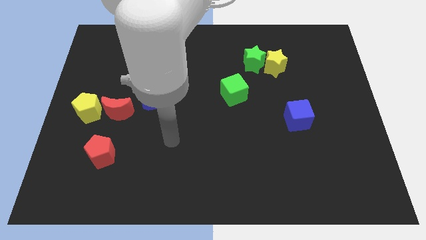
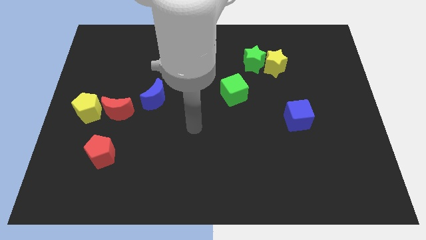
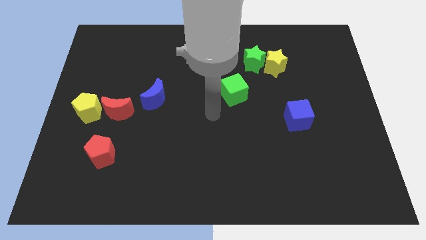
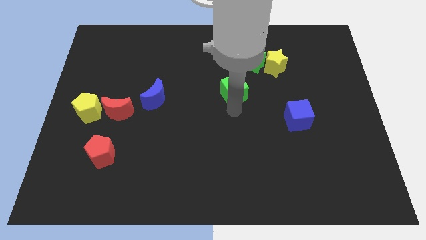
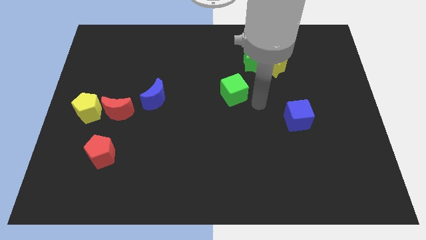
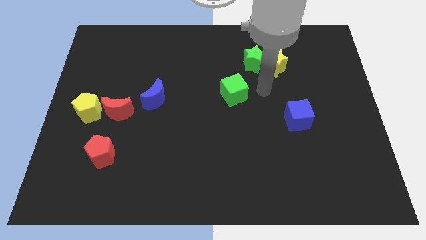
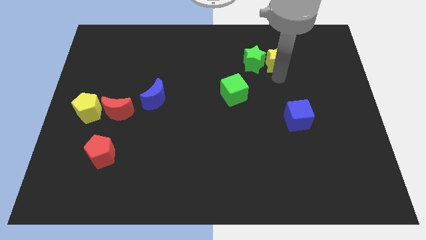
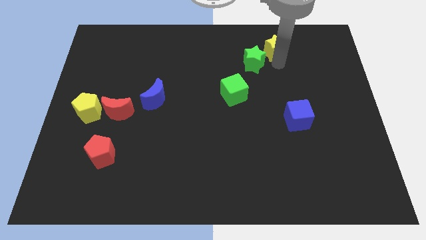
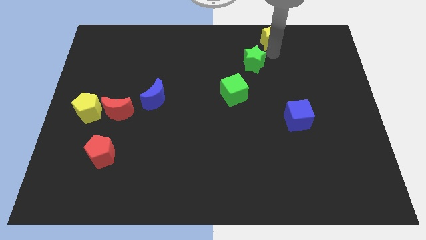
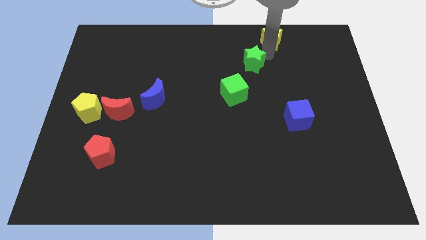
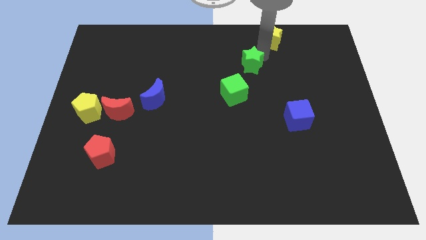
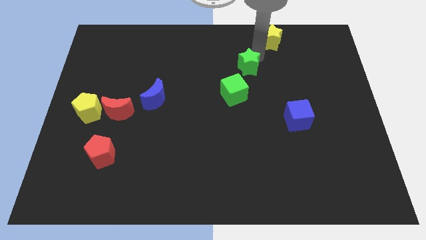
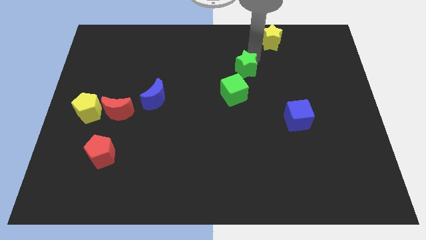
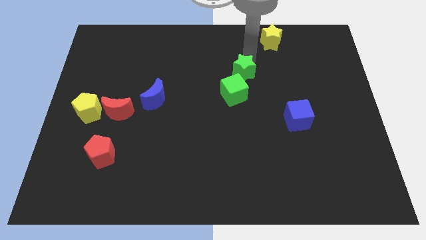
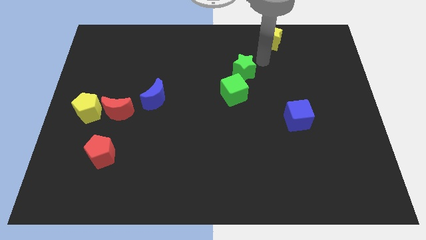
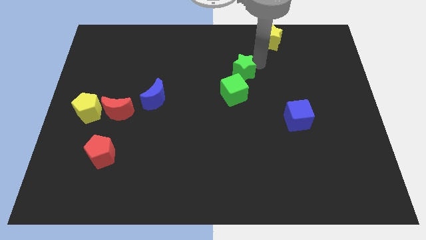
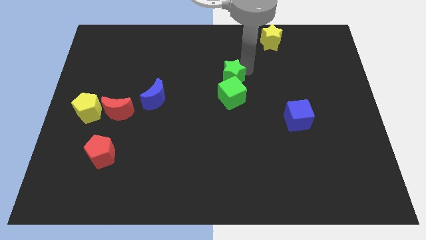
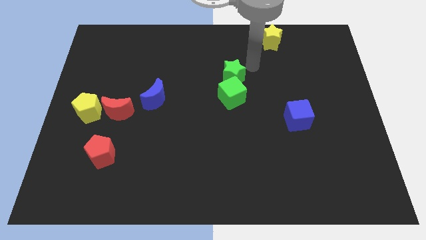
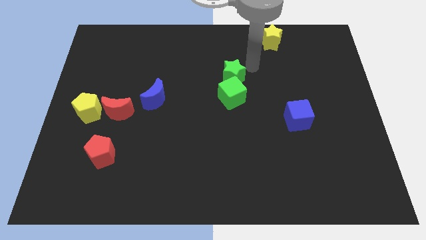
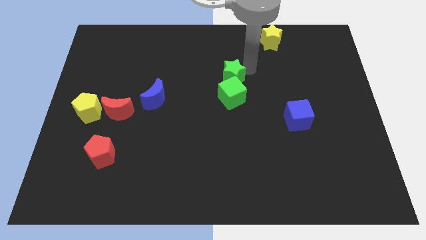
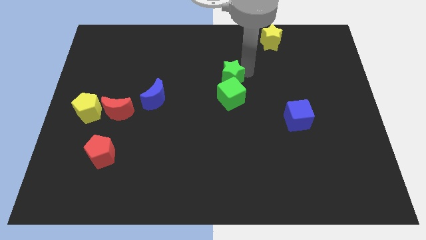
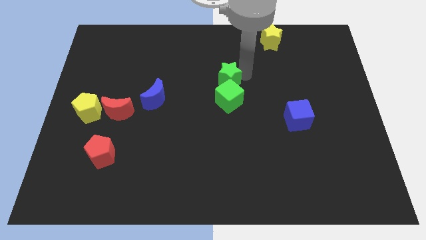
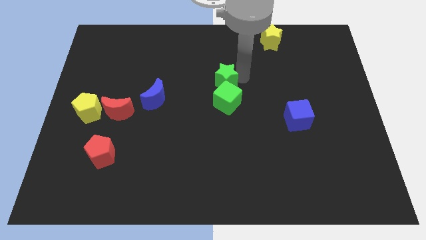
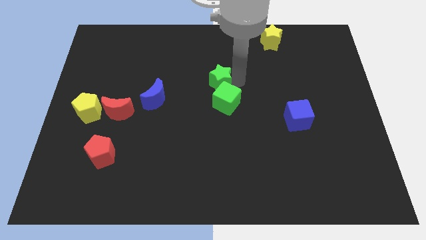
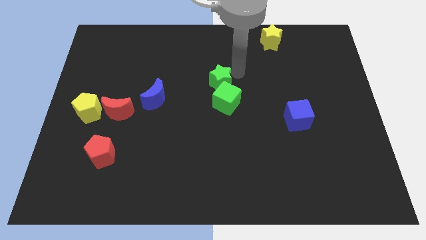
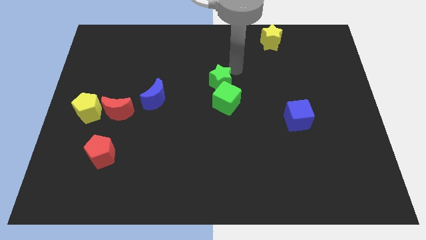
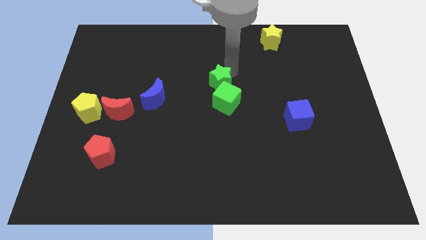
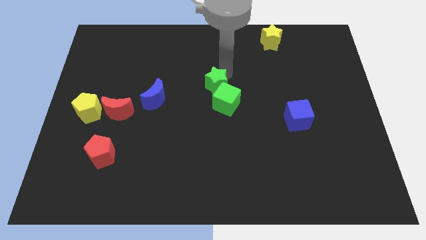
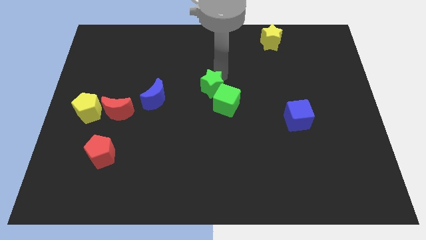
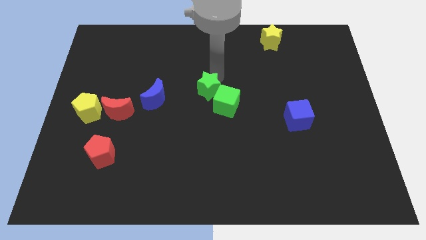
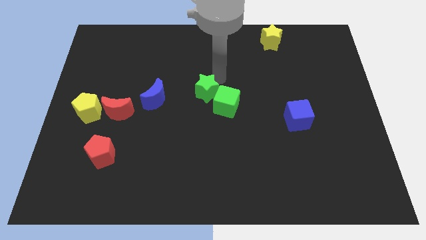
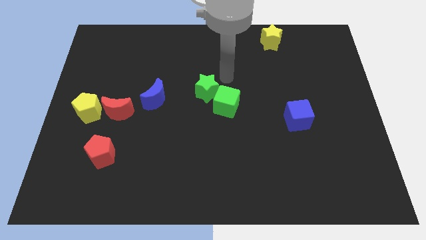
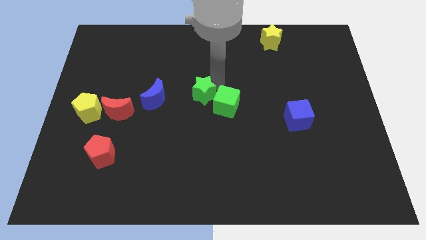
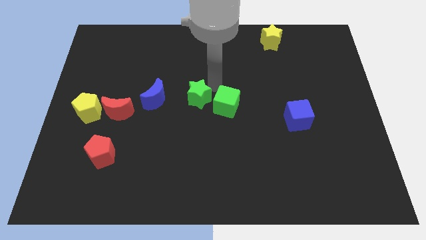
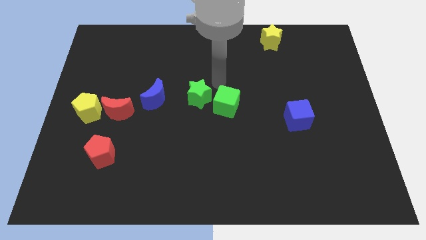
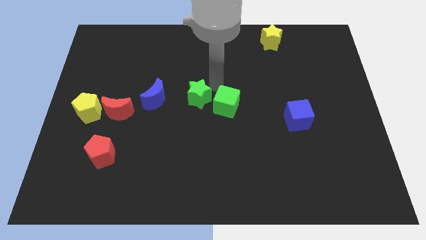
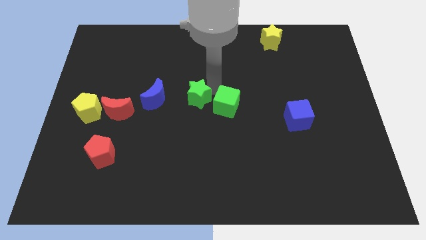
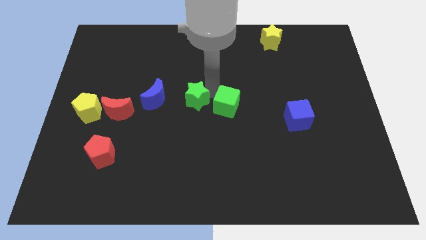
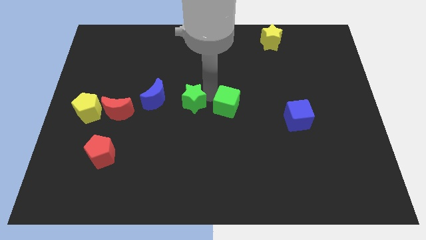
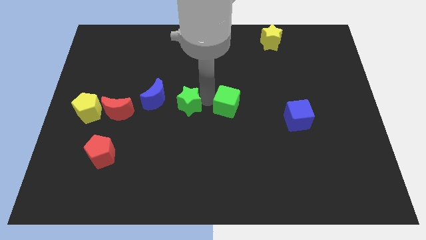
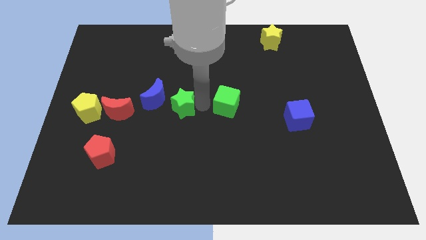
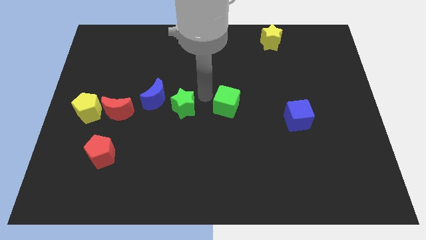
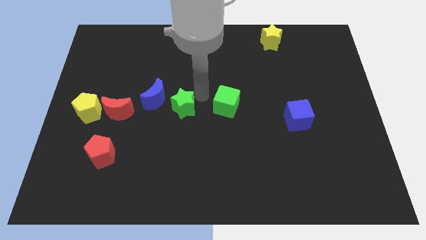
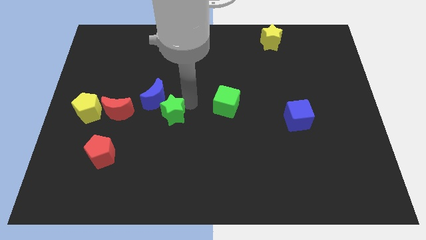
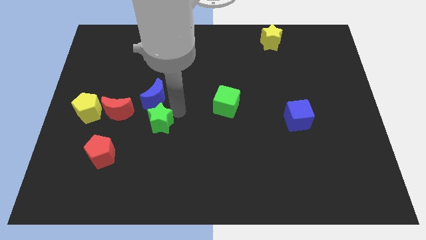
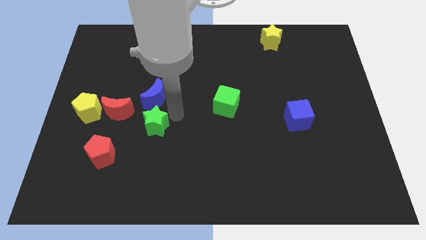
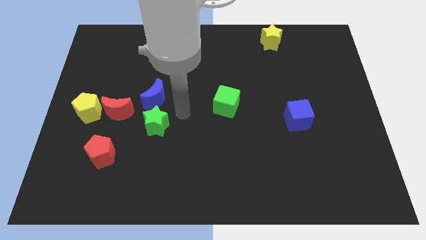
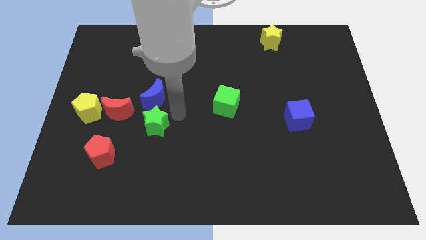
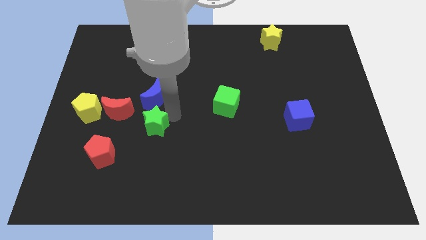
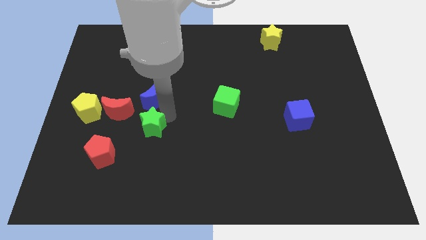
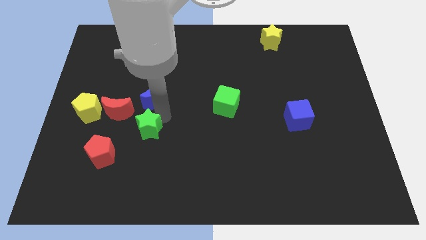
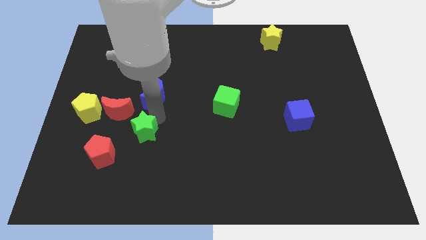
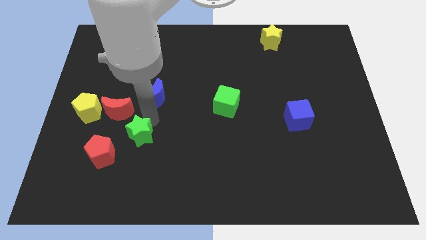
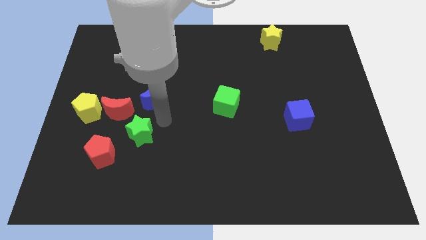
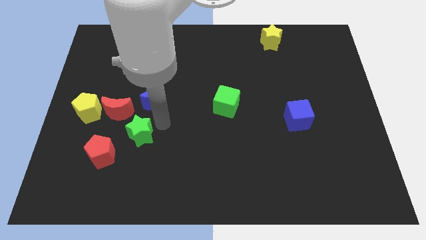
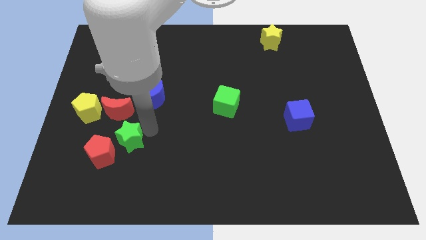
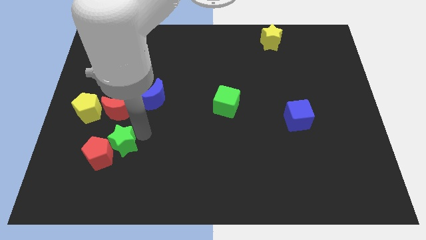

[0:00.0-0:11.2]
push the green star close to the red pentagon

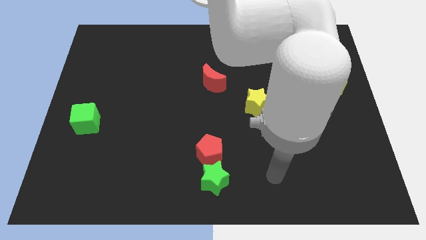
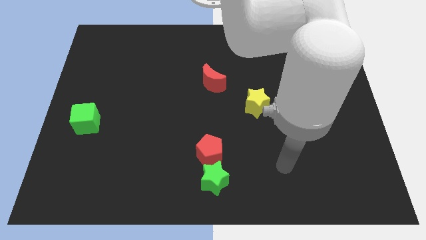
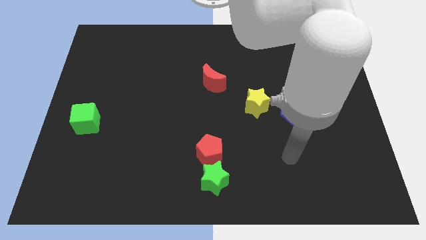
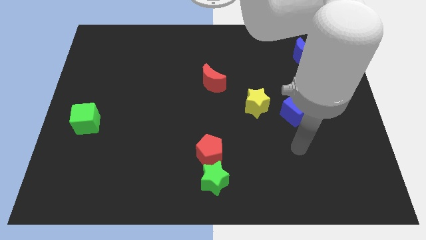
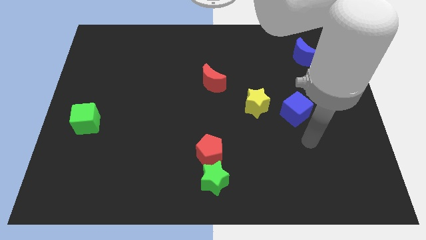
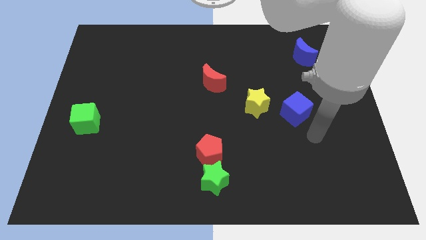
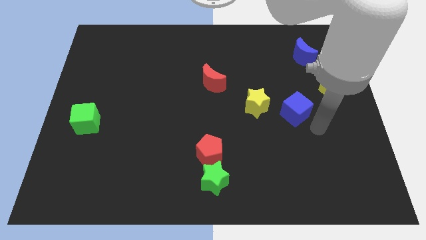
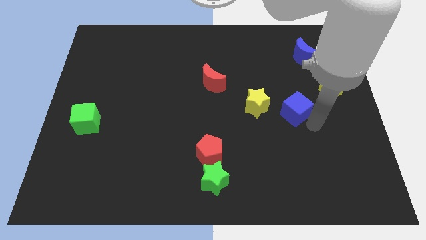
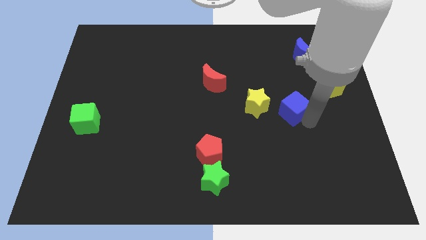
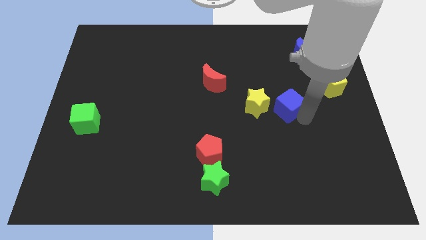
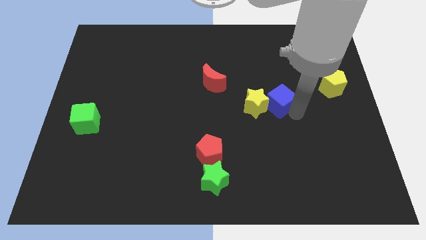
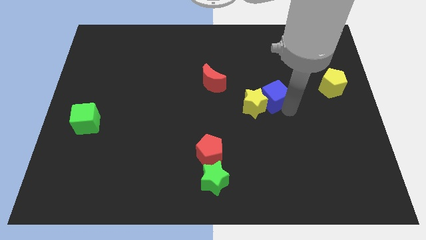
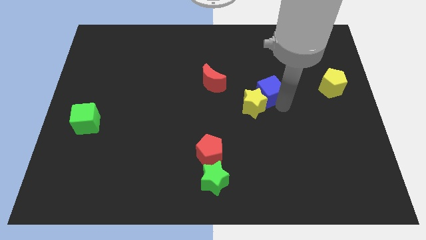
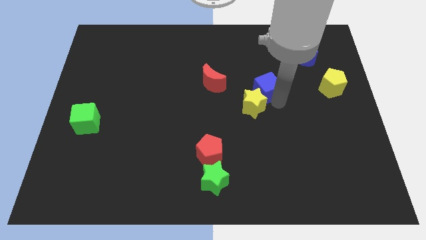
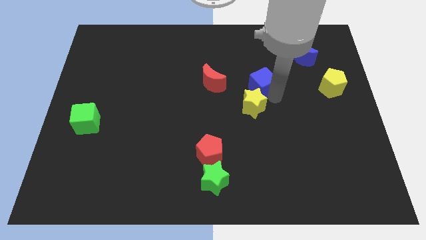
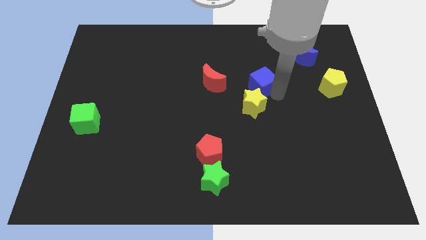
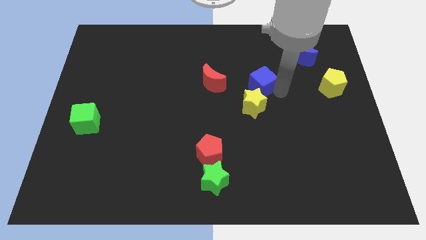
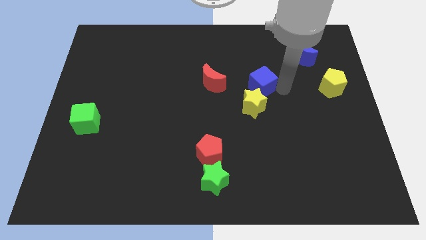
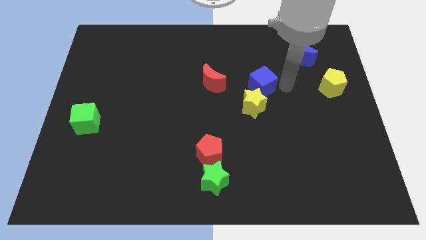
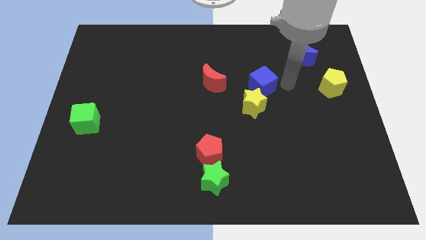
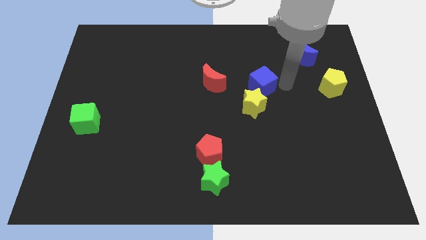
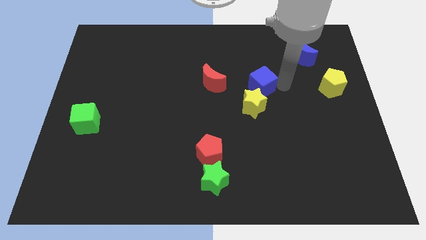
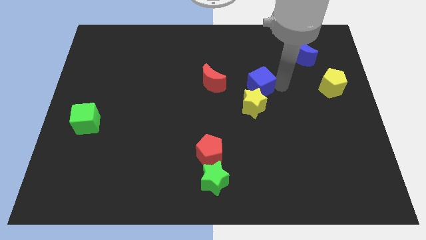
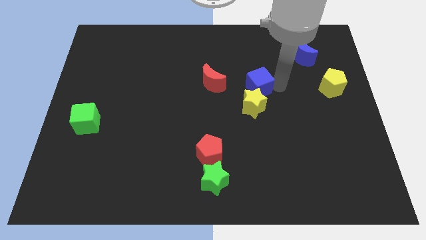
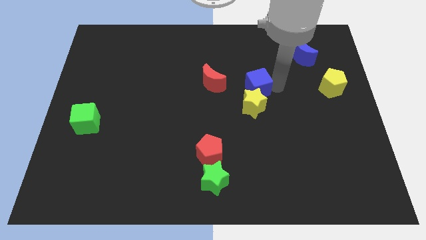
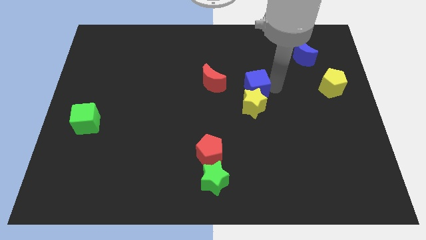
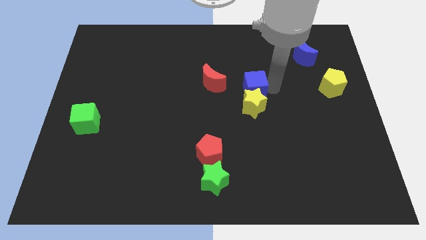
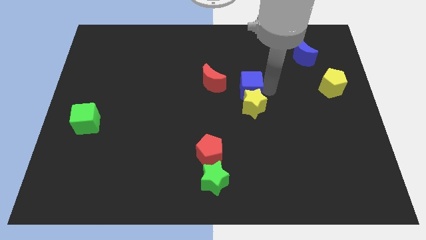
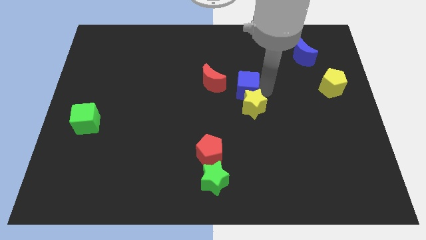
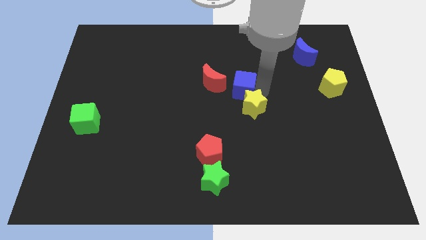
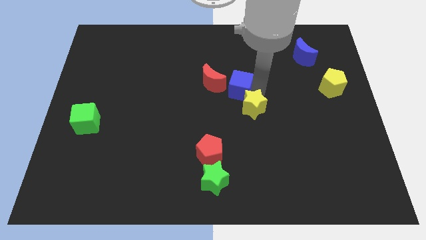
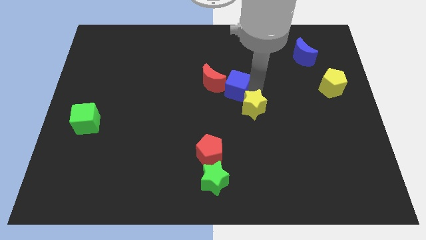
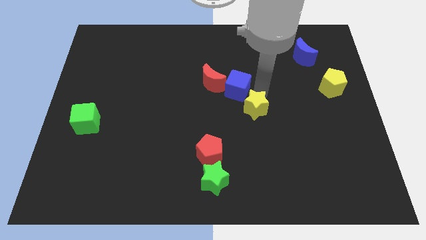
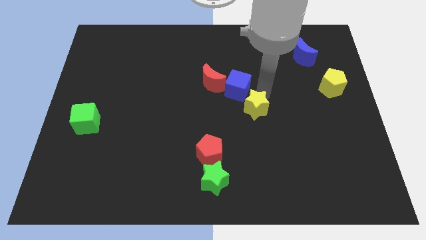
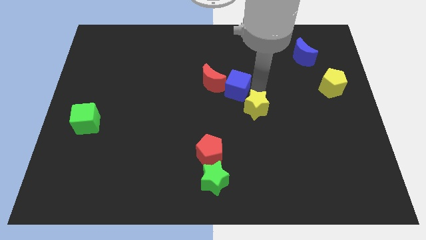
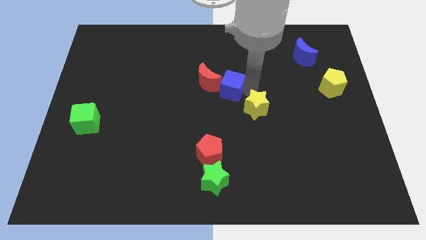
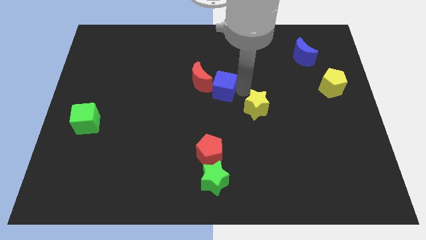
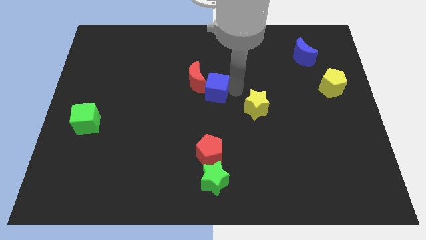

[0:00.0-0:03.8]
slide the blue cube towards the red moon
